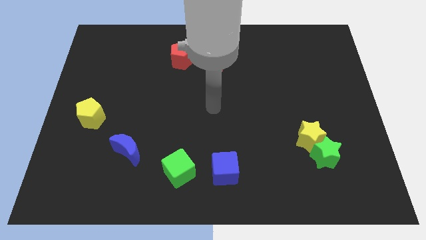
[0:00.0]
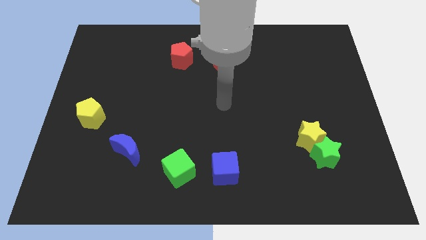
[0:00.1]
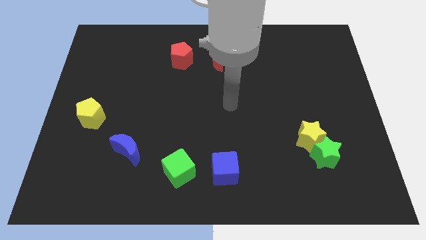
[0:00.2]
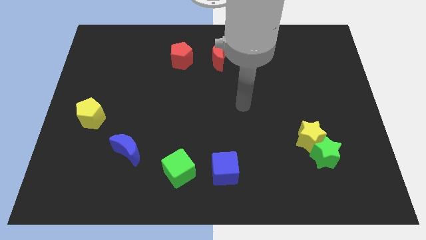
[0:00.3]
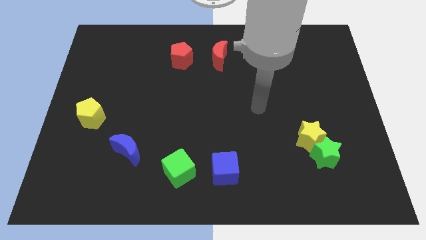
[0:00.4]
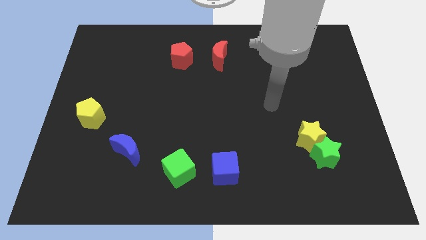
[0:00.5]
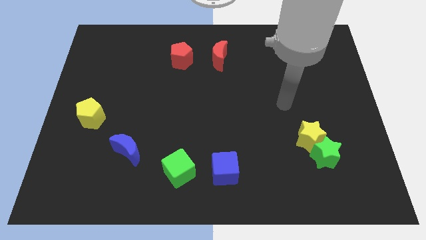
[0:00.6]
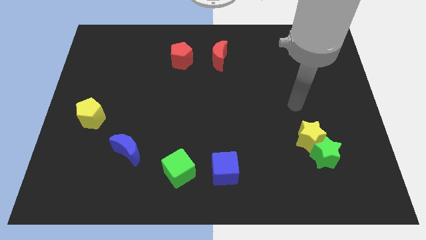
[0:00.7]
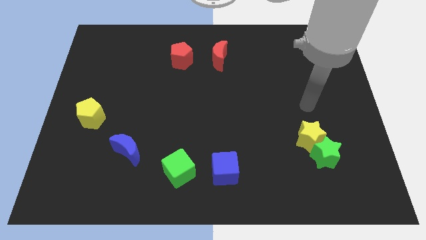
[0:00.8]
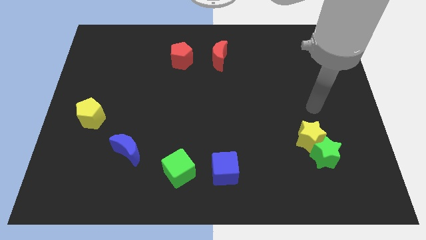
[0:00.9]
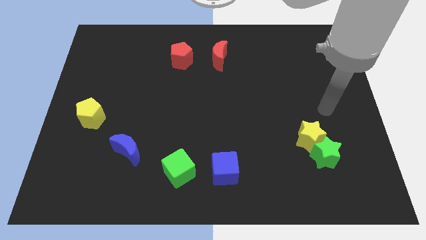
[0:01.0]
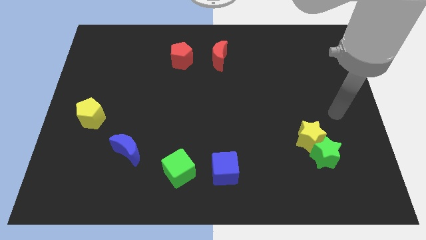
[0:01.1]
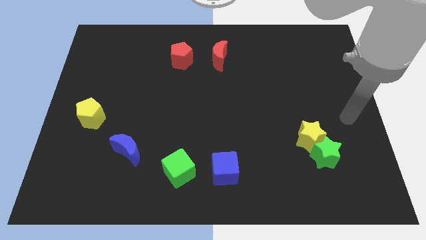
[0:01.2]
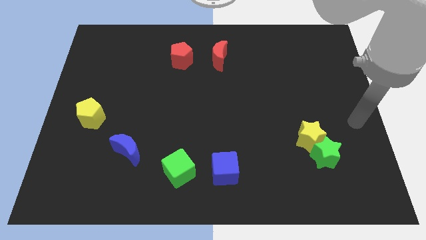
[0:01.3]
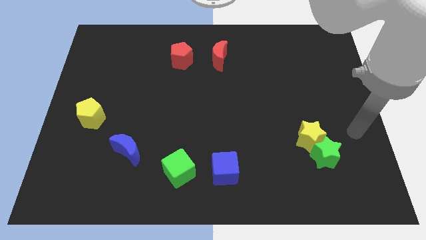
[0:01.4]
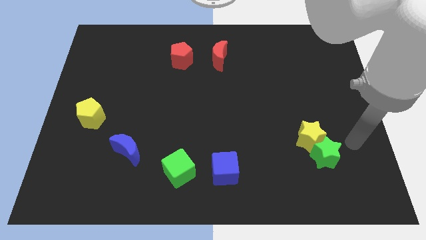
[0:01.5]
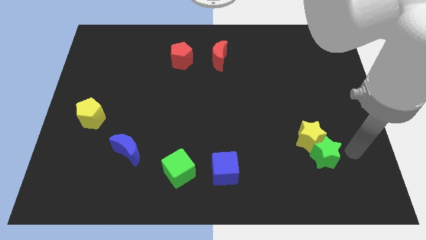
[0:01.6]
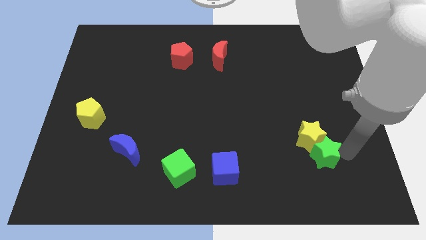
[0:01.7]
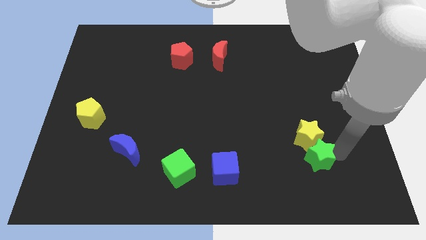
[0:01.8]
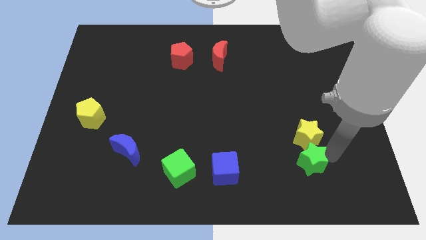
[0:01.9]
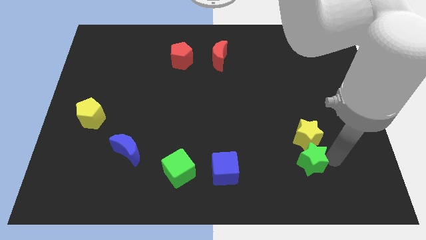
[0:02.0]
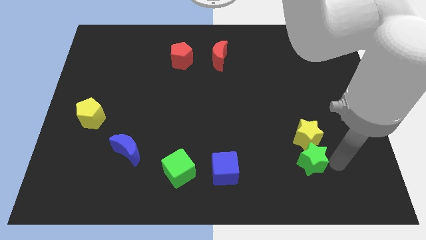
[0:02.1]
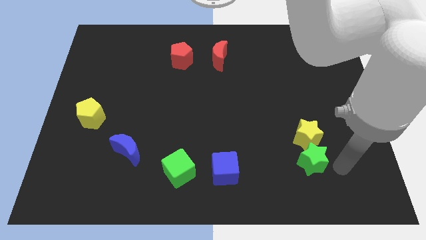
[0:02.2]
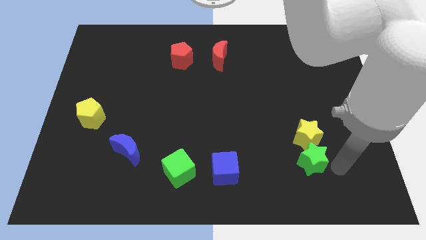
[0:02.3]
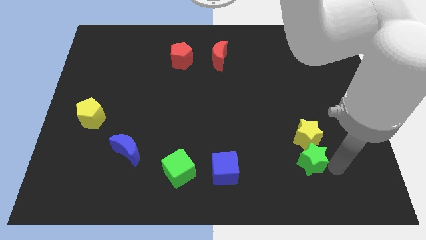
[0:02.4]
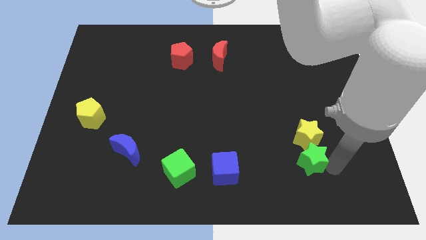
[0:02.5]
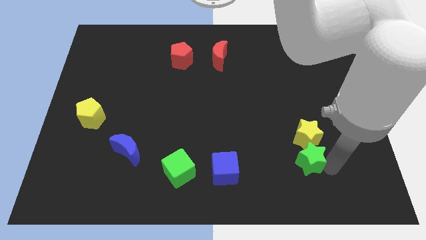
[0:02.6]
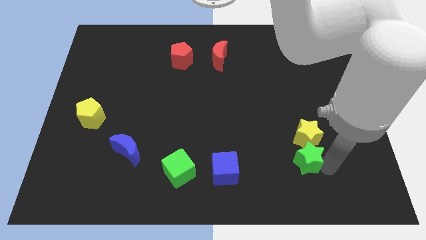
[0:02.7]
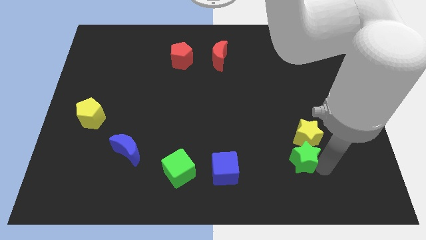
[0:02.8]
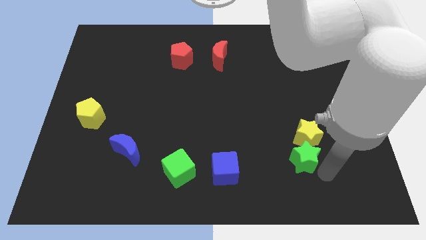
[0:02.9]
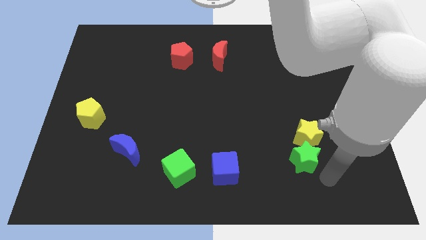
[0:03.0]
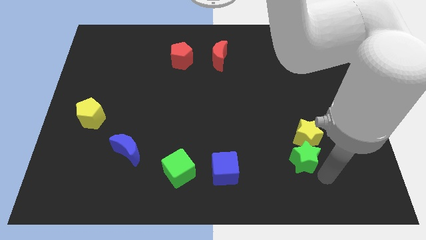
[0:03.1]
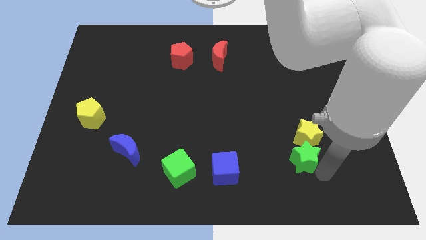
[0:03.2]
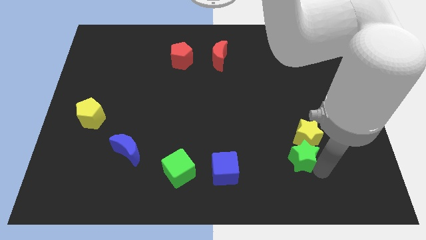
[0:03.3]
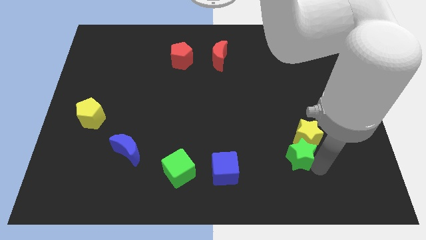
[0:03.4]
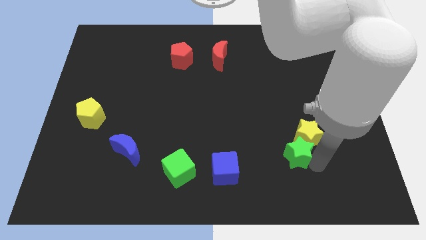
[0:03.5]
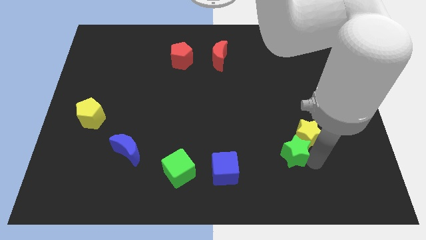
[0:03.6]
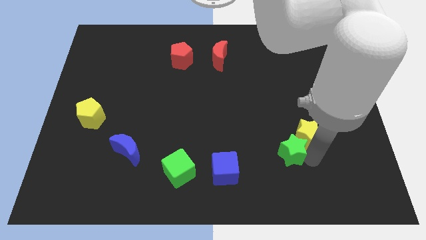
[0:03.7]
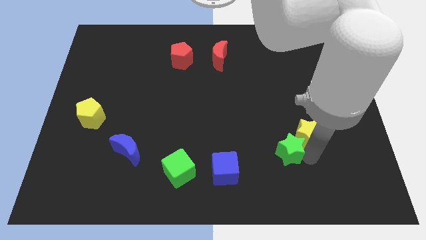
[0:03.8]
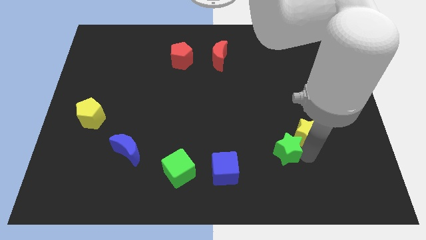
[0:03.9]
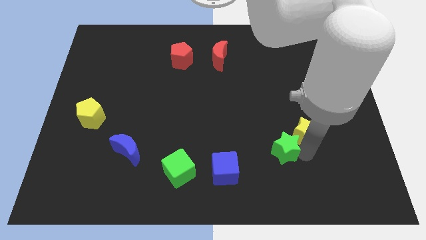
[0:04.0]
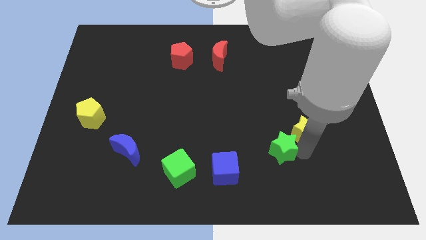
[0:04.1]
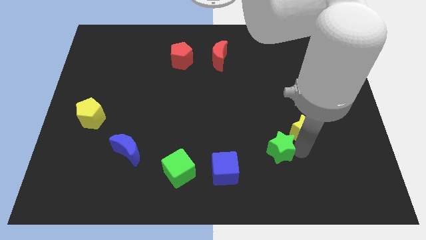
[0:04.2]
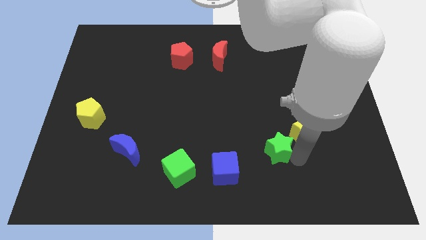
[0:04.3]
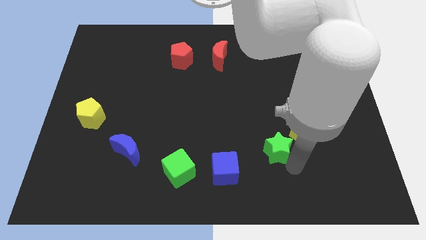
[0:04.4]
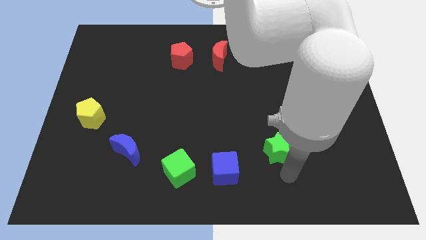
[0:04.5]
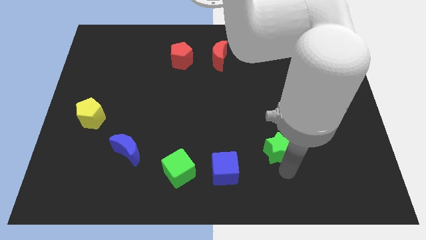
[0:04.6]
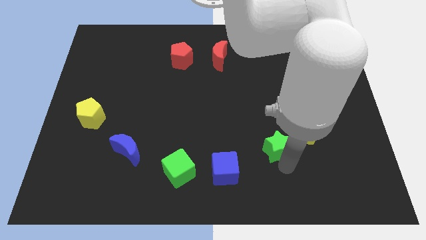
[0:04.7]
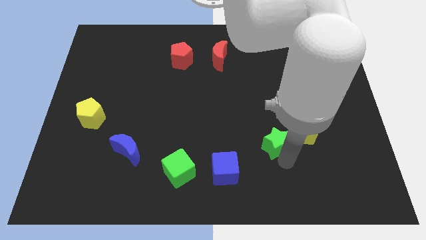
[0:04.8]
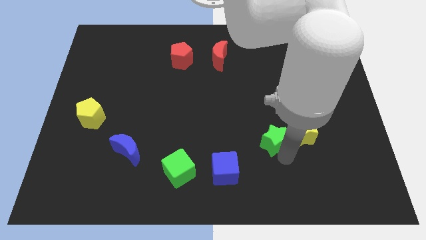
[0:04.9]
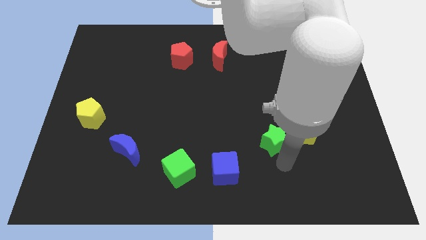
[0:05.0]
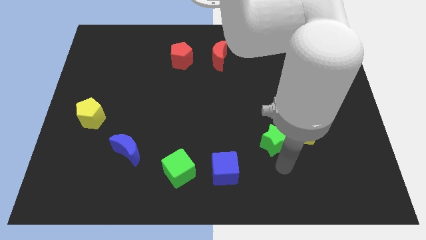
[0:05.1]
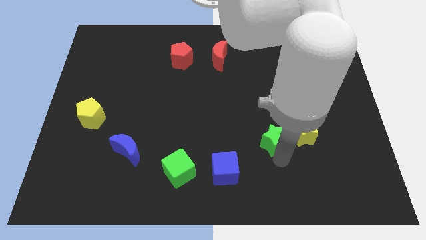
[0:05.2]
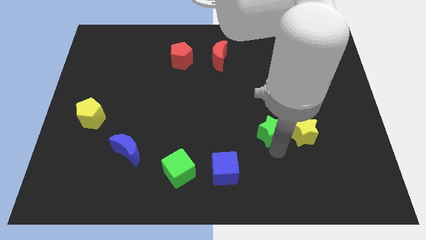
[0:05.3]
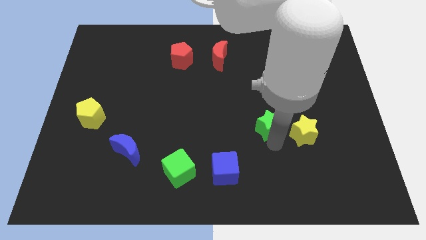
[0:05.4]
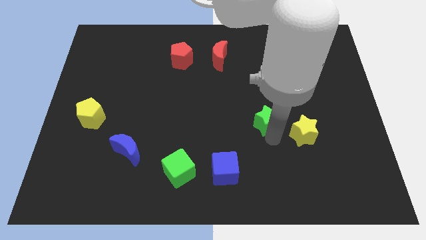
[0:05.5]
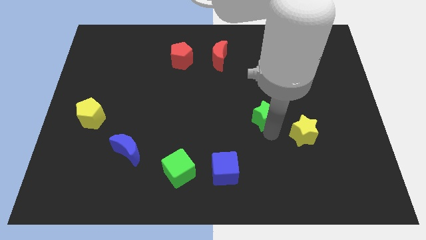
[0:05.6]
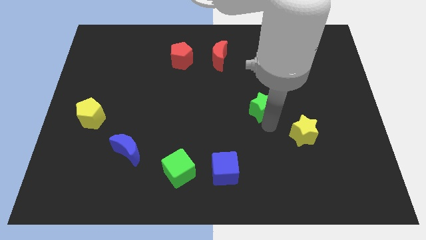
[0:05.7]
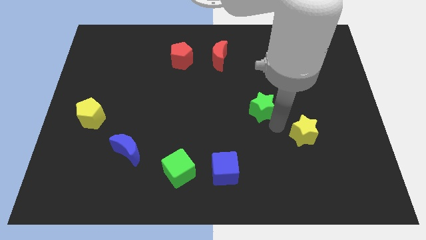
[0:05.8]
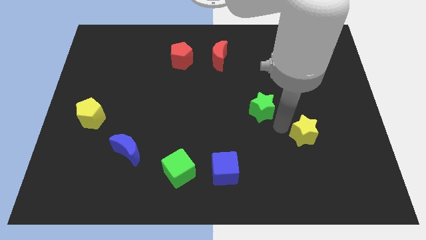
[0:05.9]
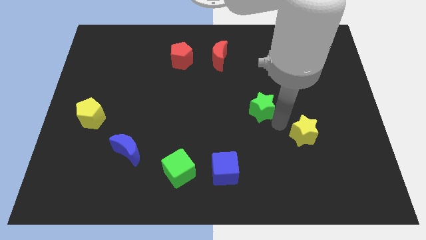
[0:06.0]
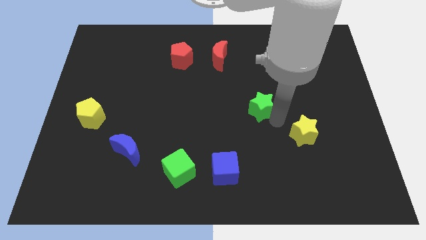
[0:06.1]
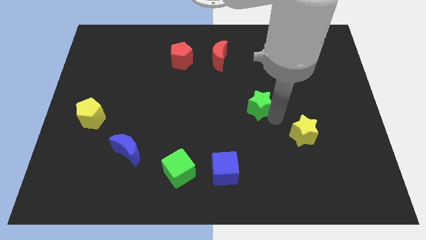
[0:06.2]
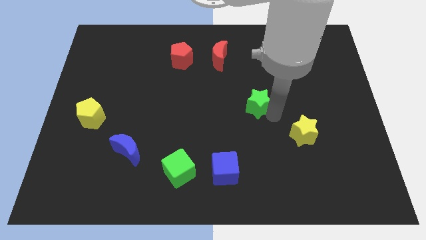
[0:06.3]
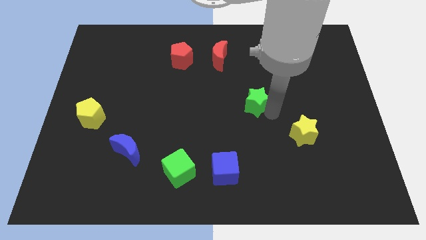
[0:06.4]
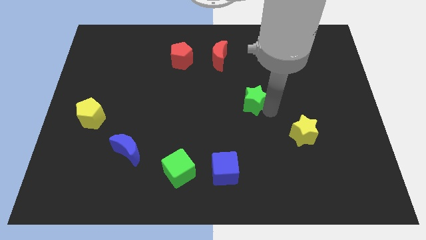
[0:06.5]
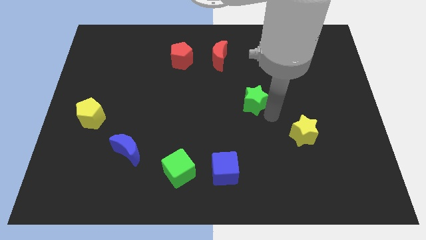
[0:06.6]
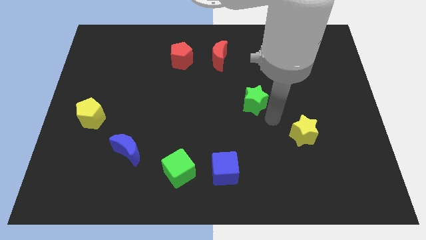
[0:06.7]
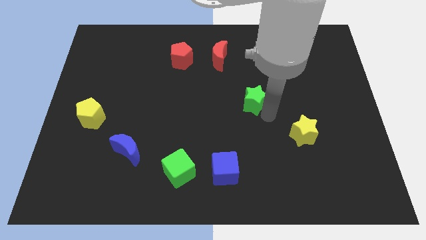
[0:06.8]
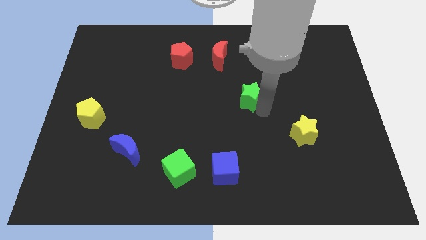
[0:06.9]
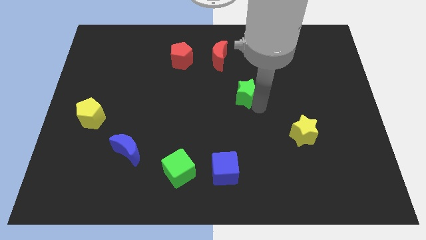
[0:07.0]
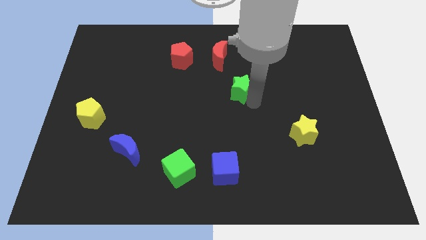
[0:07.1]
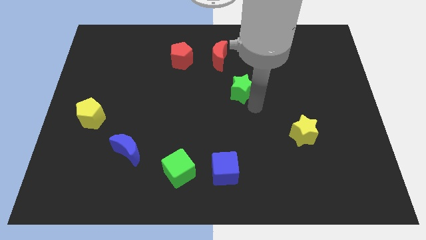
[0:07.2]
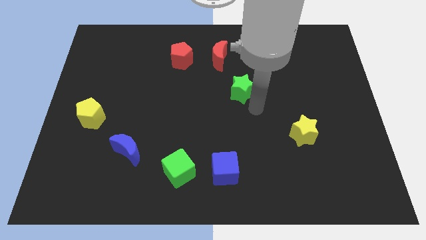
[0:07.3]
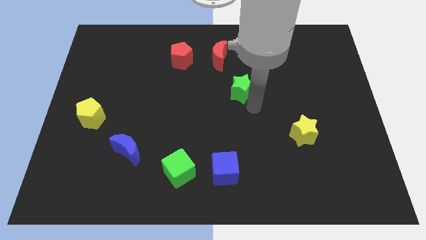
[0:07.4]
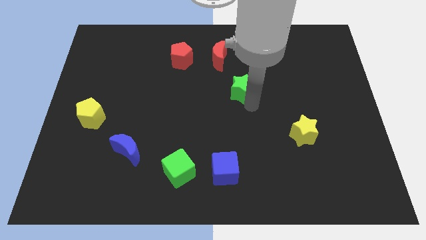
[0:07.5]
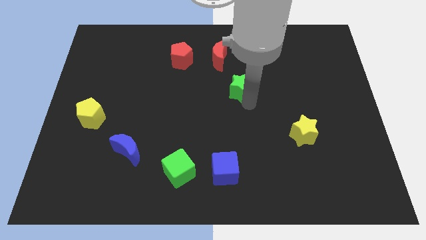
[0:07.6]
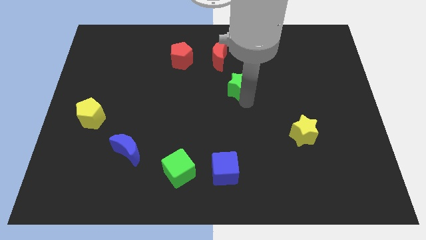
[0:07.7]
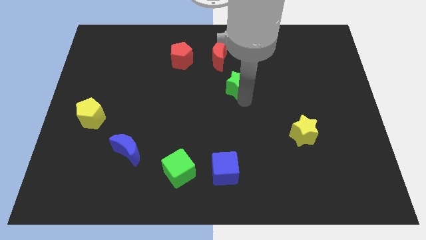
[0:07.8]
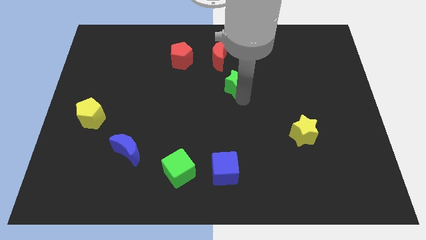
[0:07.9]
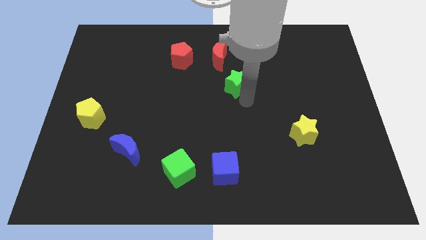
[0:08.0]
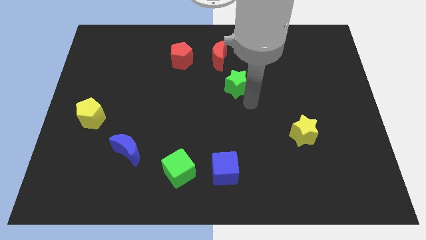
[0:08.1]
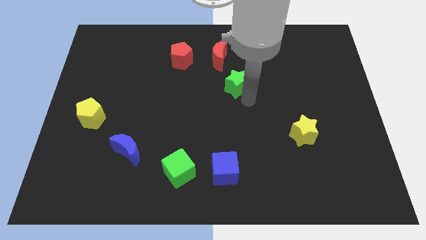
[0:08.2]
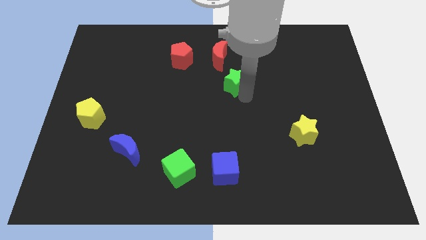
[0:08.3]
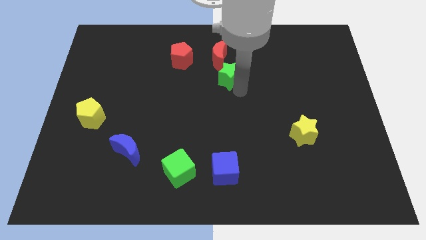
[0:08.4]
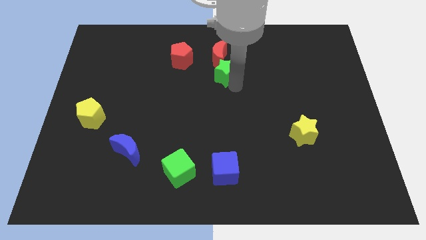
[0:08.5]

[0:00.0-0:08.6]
slide the green star towards the red moon
